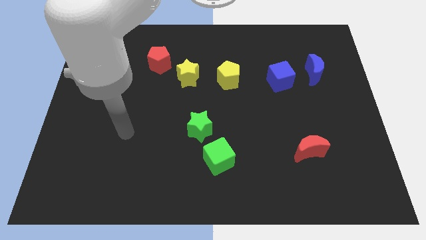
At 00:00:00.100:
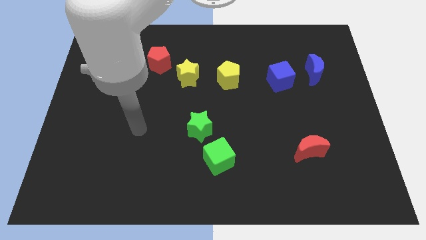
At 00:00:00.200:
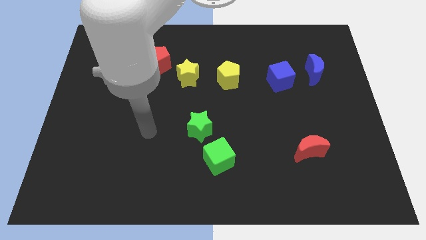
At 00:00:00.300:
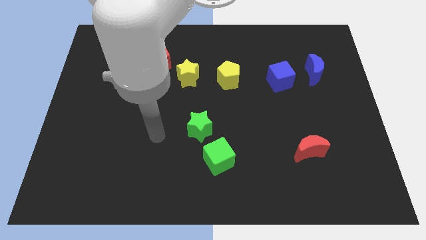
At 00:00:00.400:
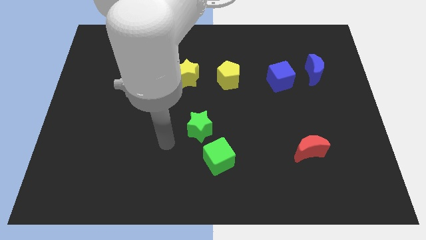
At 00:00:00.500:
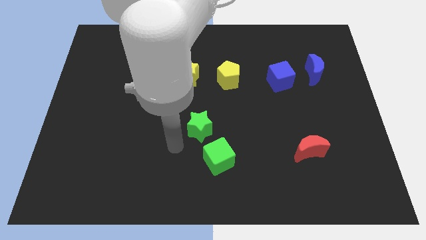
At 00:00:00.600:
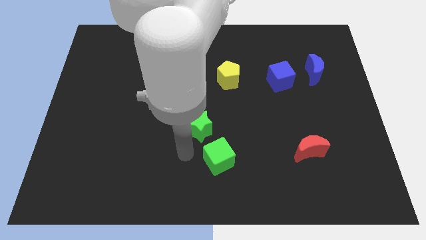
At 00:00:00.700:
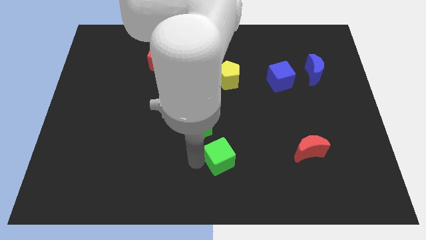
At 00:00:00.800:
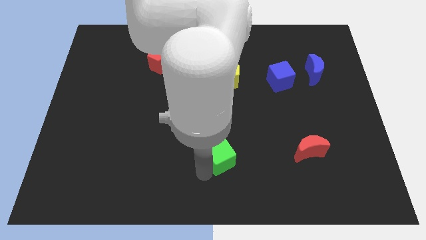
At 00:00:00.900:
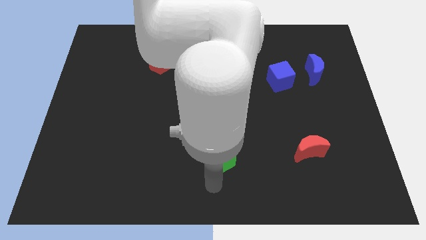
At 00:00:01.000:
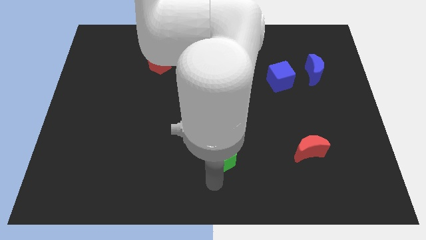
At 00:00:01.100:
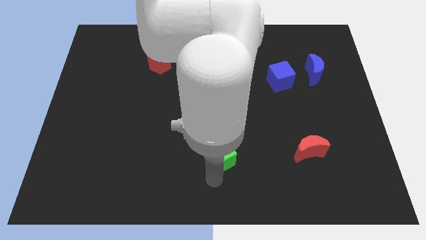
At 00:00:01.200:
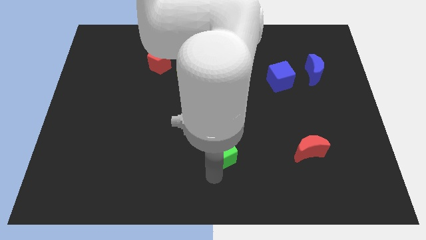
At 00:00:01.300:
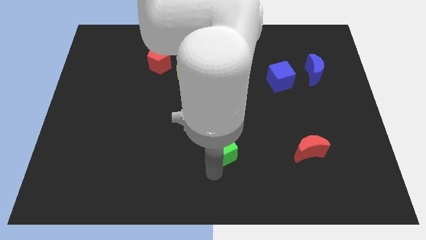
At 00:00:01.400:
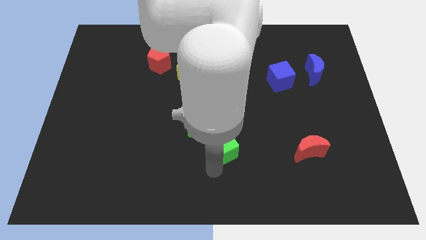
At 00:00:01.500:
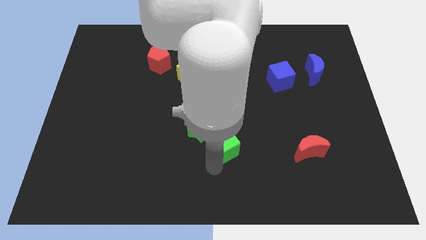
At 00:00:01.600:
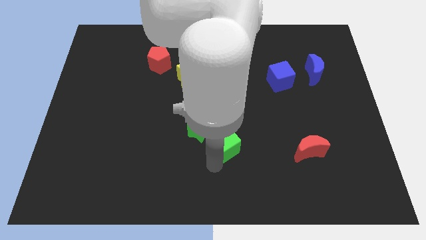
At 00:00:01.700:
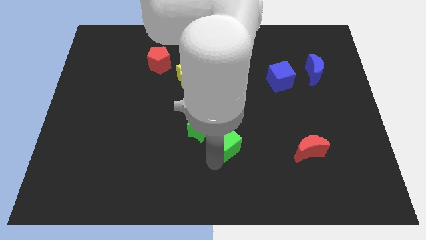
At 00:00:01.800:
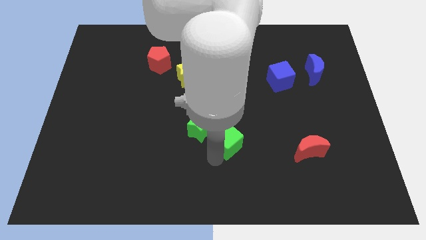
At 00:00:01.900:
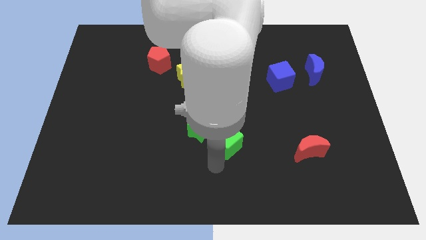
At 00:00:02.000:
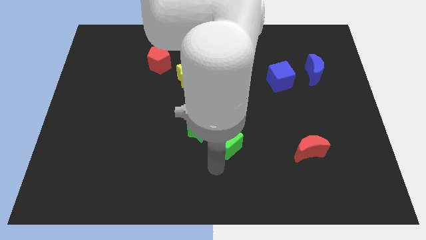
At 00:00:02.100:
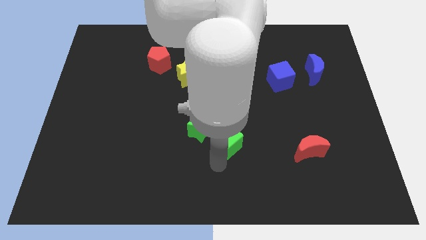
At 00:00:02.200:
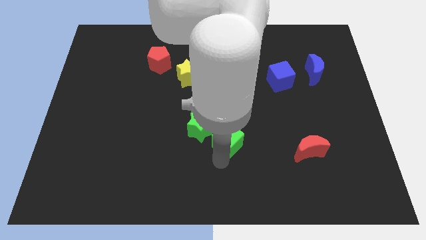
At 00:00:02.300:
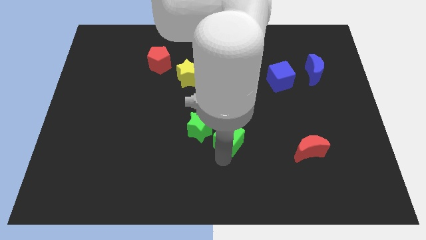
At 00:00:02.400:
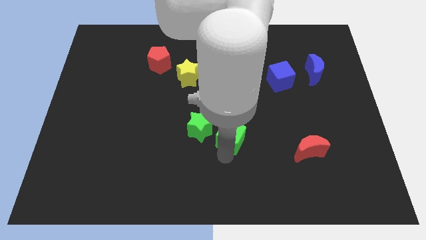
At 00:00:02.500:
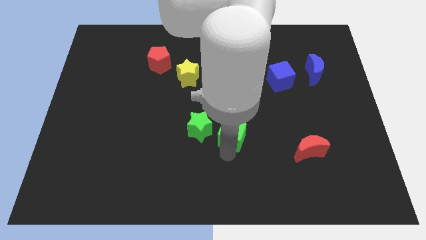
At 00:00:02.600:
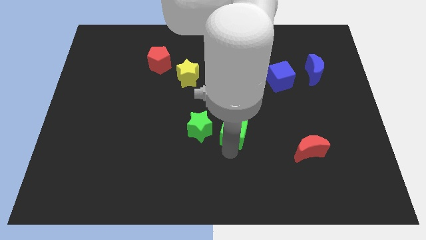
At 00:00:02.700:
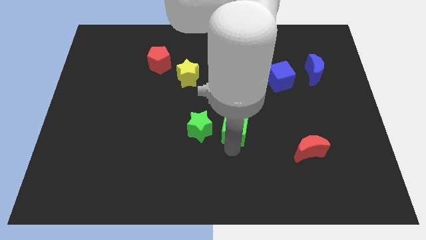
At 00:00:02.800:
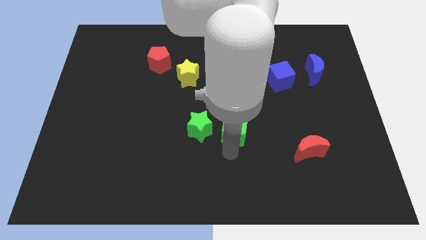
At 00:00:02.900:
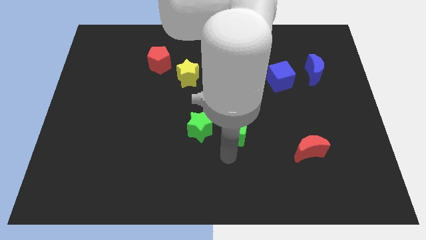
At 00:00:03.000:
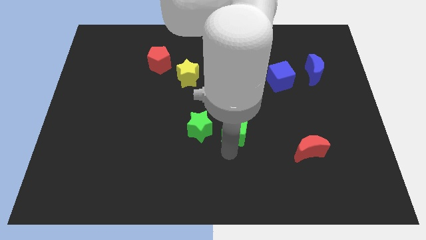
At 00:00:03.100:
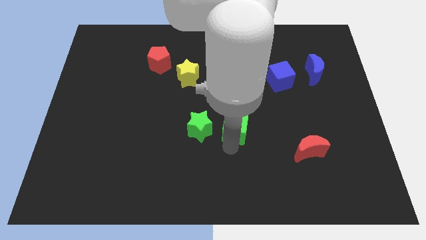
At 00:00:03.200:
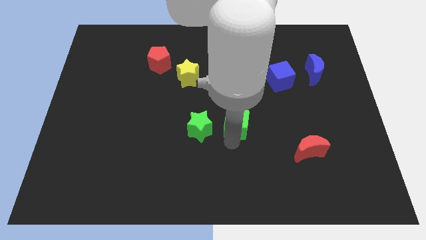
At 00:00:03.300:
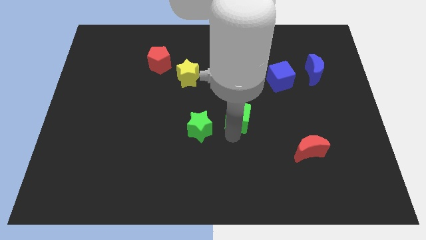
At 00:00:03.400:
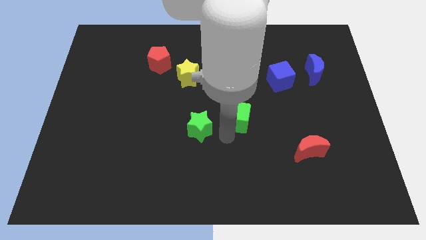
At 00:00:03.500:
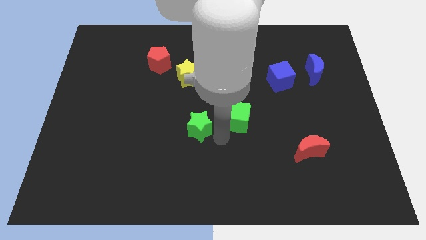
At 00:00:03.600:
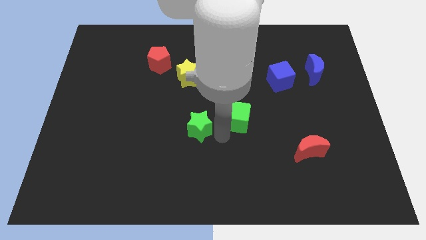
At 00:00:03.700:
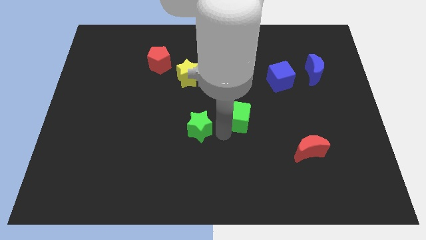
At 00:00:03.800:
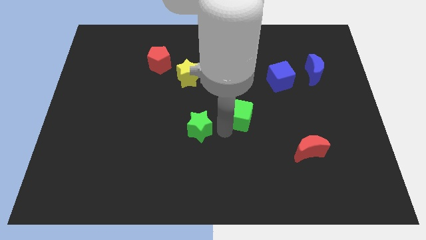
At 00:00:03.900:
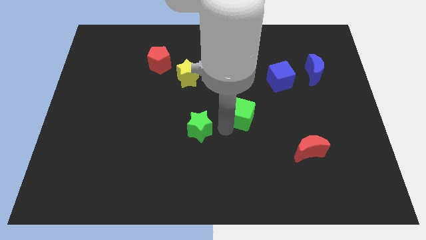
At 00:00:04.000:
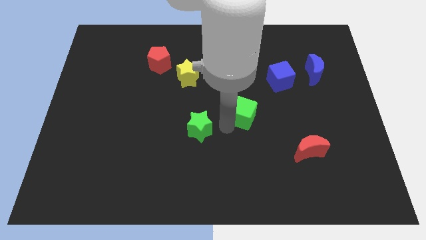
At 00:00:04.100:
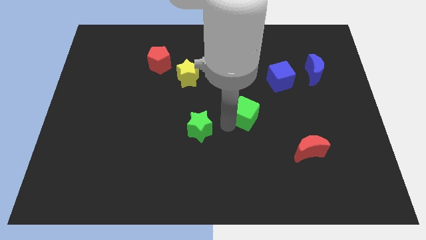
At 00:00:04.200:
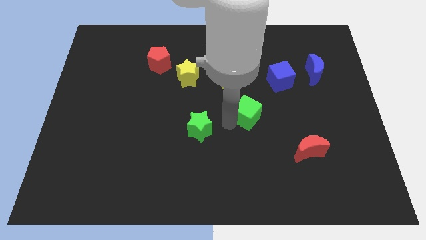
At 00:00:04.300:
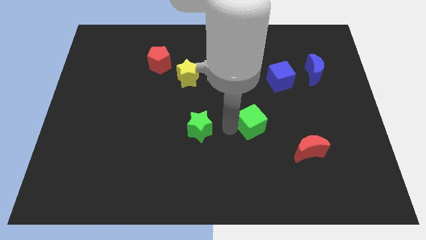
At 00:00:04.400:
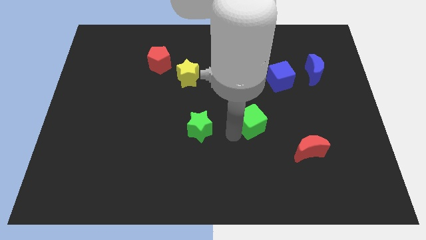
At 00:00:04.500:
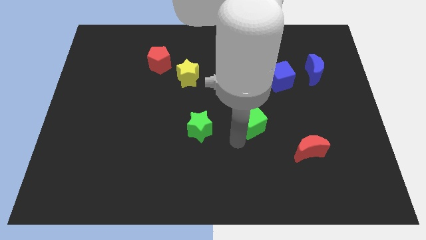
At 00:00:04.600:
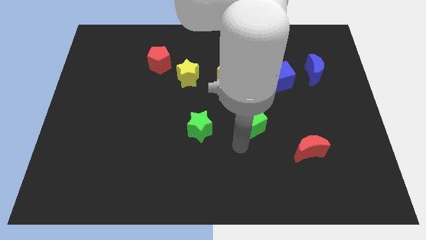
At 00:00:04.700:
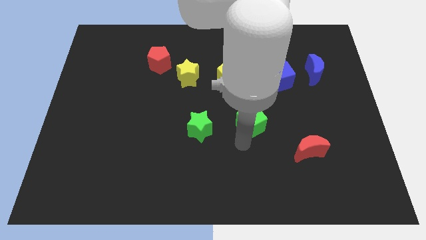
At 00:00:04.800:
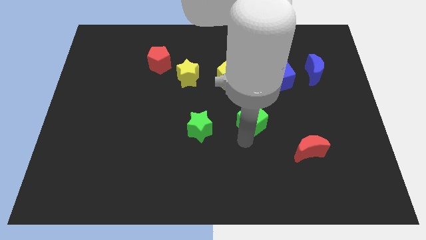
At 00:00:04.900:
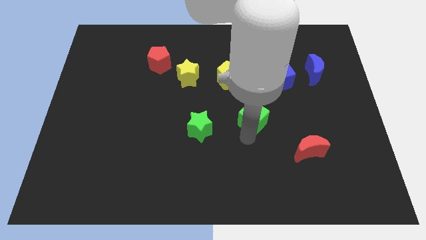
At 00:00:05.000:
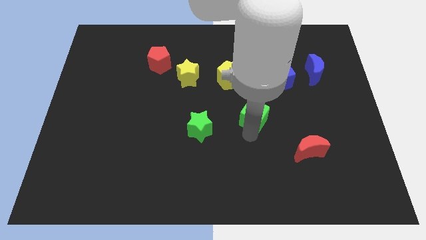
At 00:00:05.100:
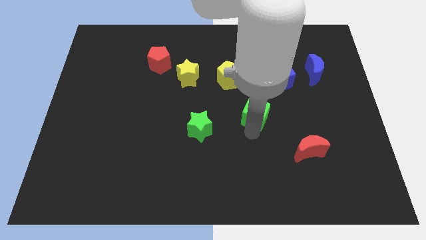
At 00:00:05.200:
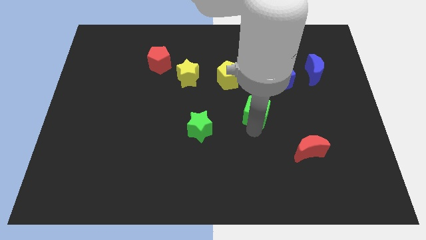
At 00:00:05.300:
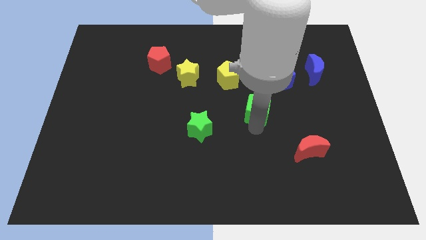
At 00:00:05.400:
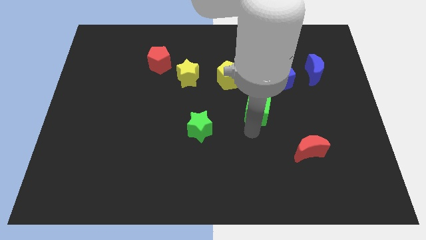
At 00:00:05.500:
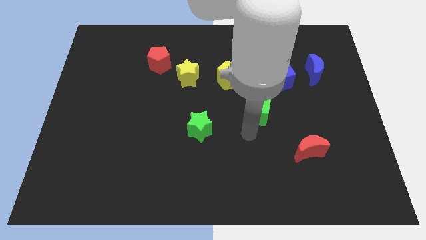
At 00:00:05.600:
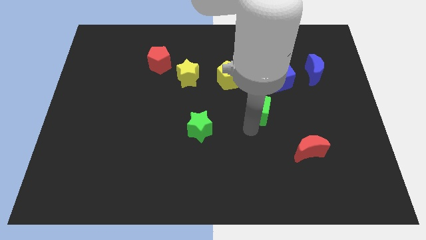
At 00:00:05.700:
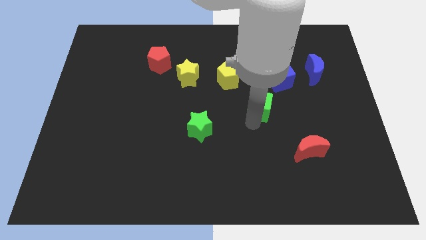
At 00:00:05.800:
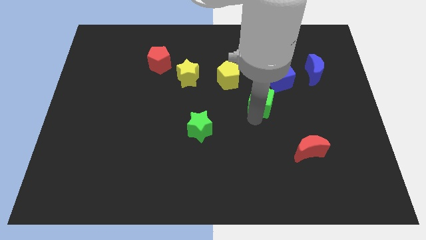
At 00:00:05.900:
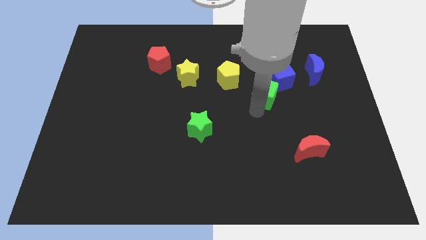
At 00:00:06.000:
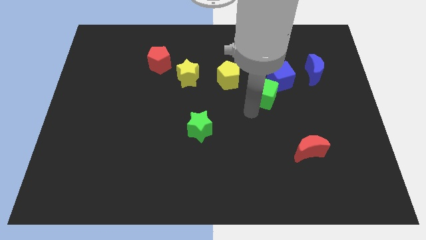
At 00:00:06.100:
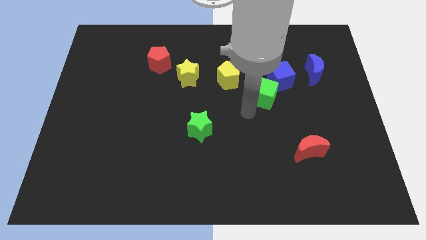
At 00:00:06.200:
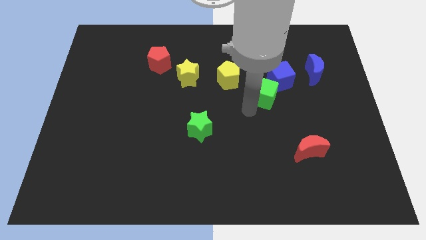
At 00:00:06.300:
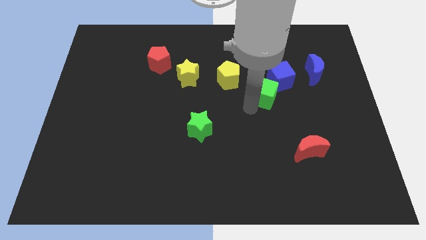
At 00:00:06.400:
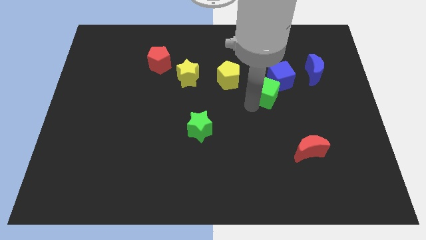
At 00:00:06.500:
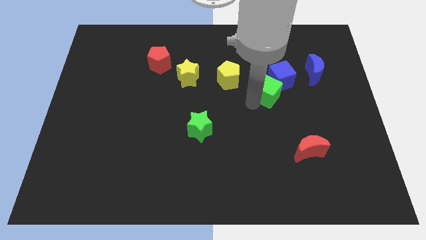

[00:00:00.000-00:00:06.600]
put the green cube next to the blue cube

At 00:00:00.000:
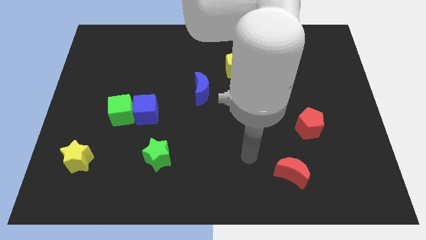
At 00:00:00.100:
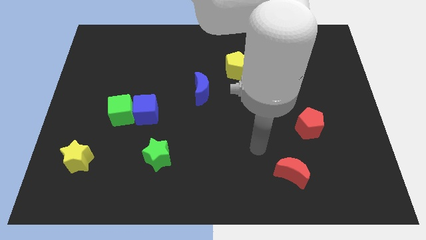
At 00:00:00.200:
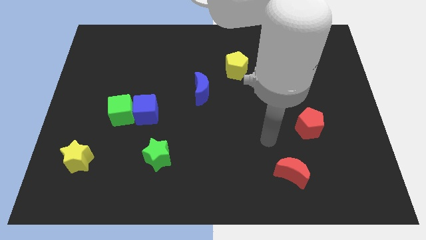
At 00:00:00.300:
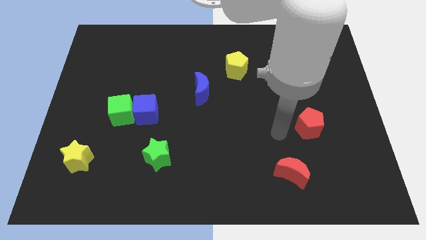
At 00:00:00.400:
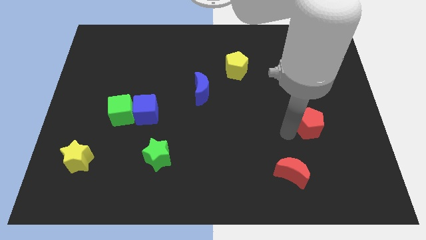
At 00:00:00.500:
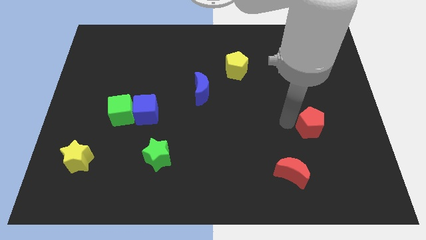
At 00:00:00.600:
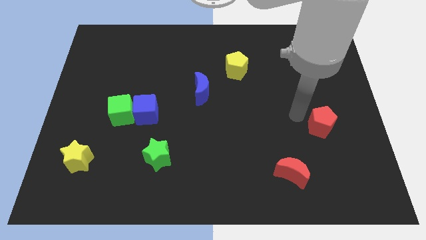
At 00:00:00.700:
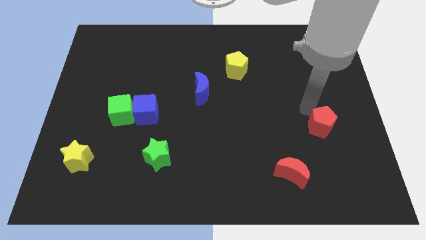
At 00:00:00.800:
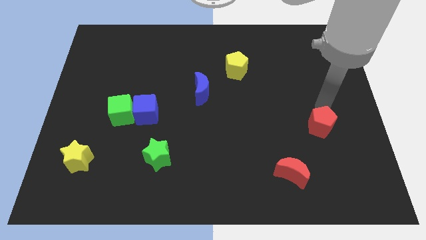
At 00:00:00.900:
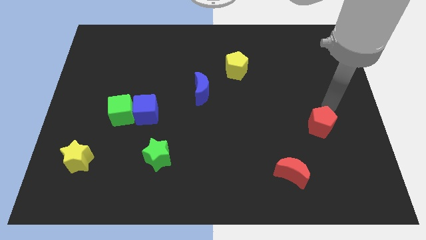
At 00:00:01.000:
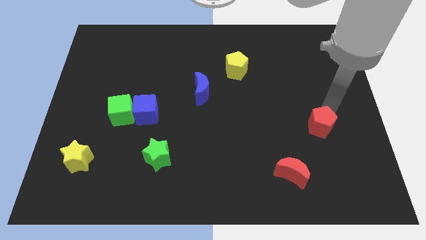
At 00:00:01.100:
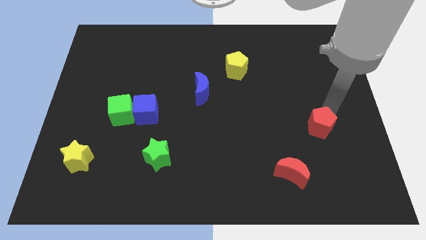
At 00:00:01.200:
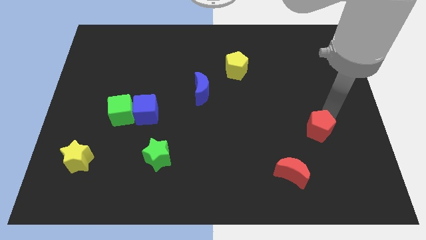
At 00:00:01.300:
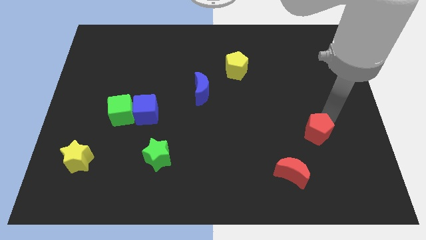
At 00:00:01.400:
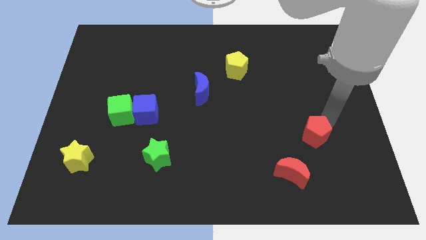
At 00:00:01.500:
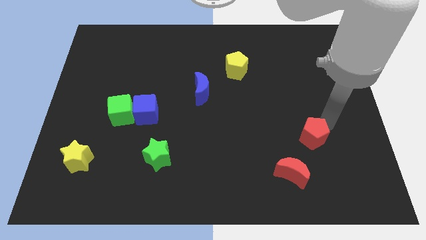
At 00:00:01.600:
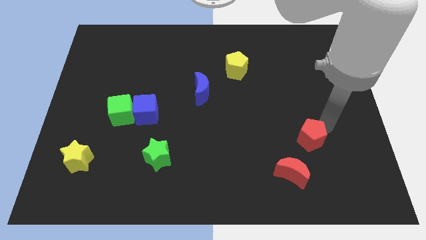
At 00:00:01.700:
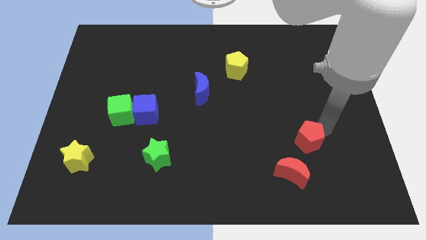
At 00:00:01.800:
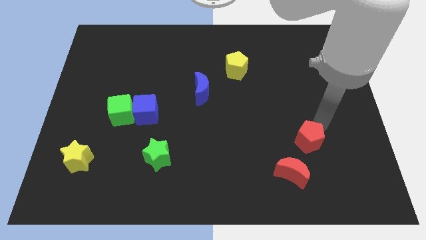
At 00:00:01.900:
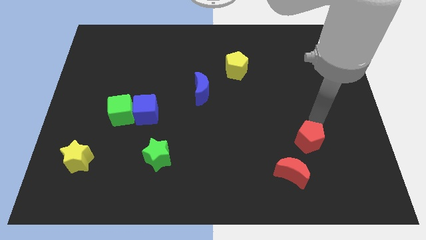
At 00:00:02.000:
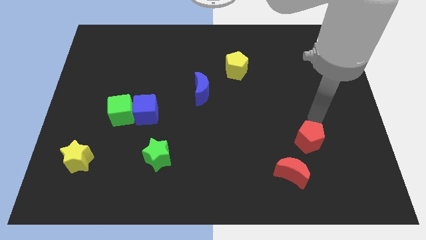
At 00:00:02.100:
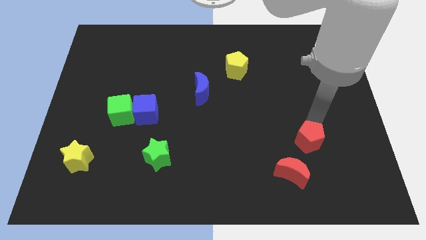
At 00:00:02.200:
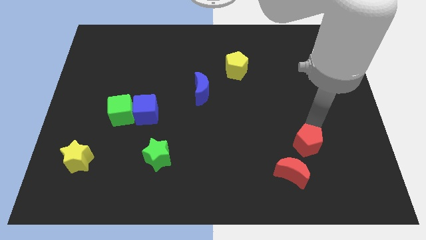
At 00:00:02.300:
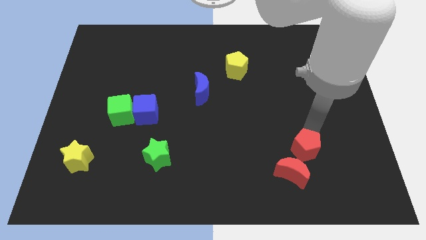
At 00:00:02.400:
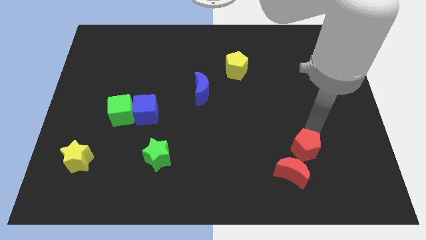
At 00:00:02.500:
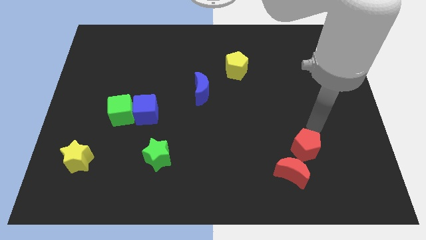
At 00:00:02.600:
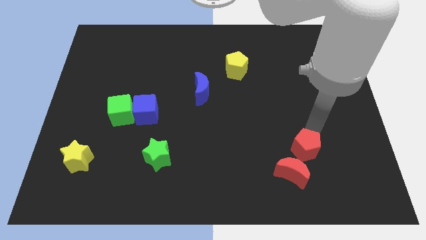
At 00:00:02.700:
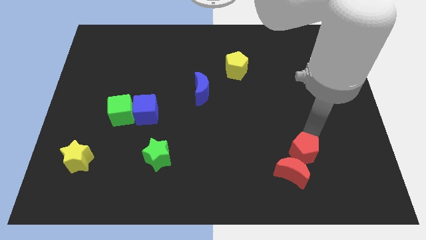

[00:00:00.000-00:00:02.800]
put the red pentagon next to the red moon
